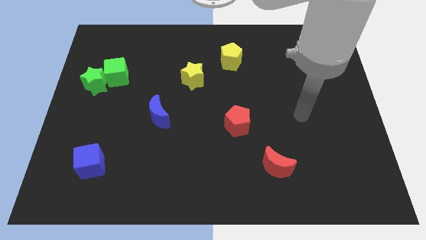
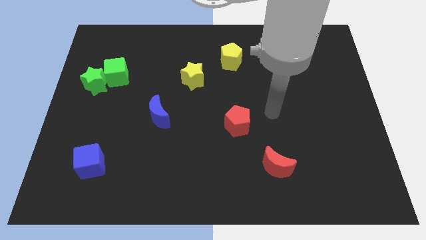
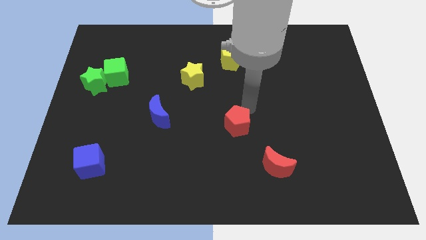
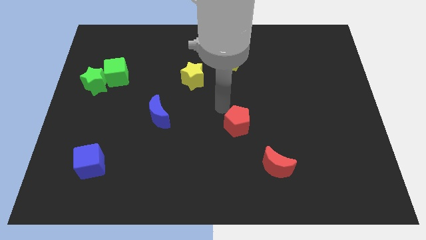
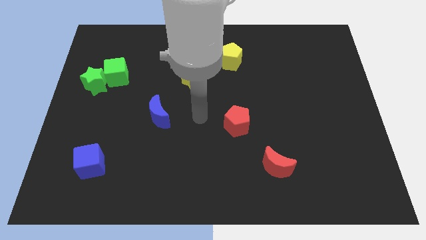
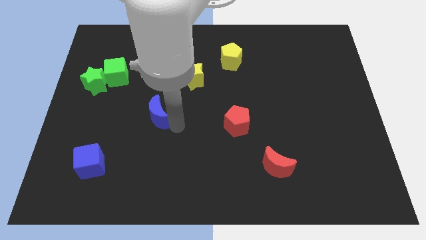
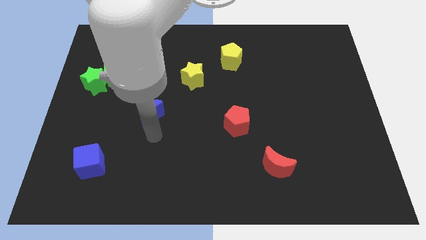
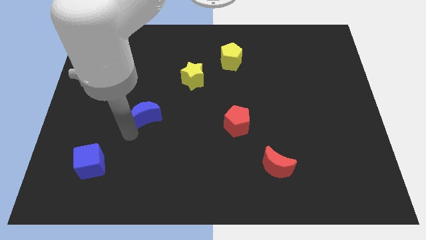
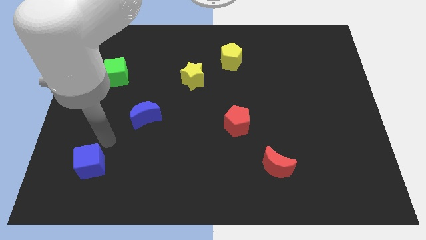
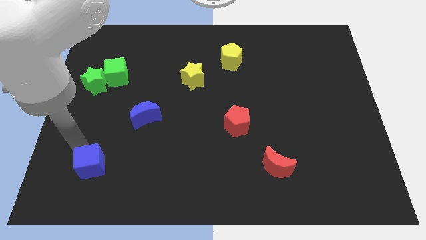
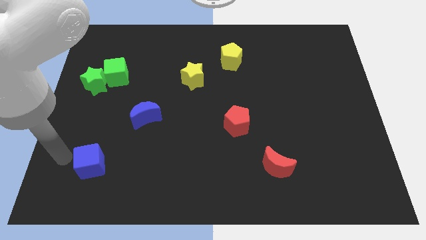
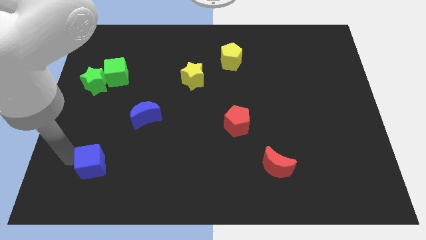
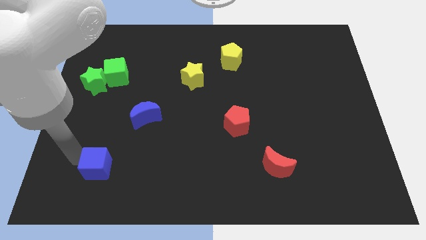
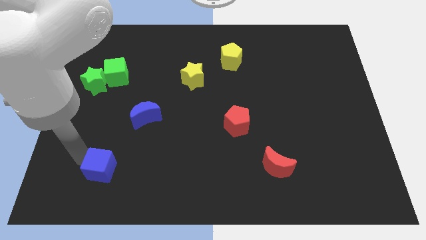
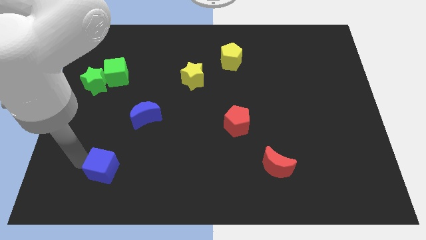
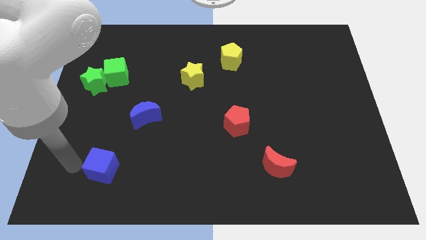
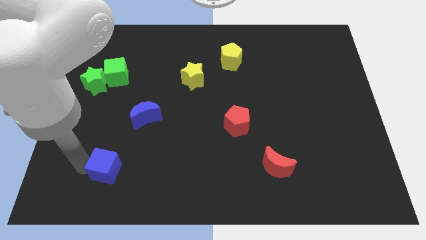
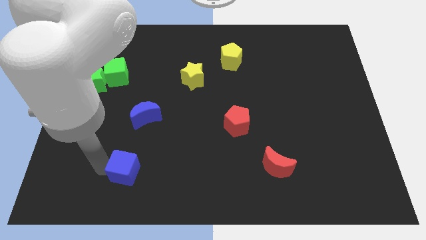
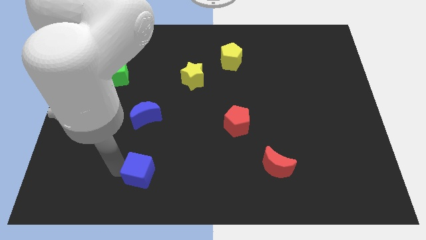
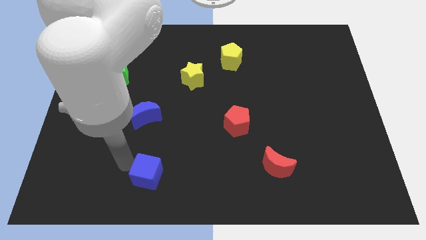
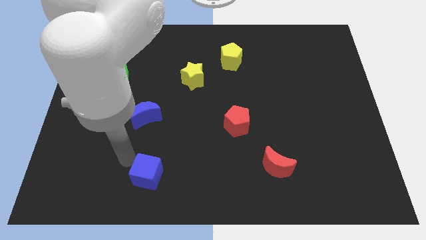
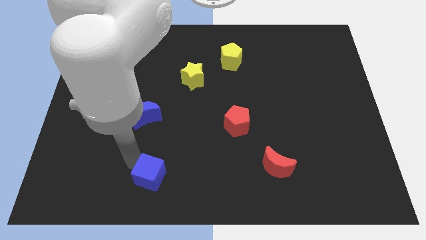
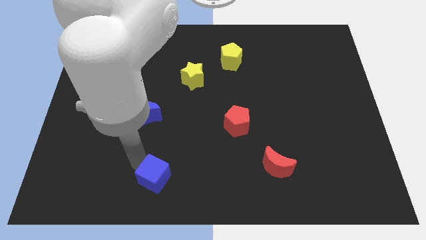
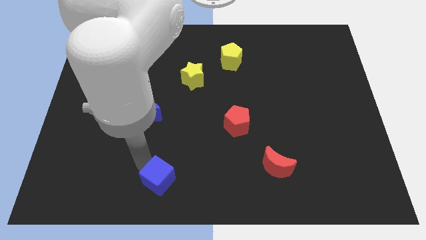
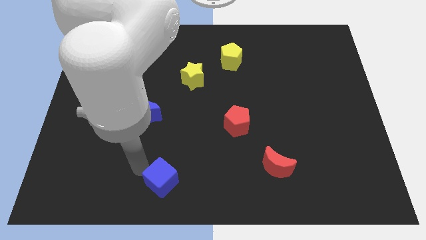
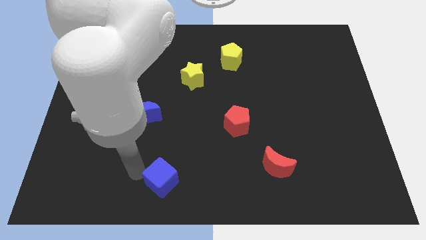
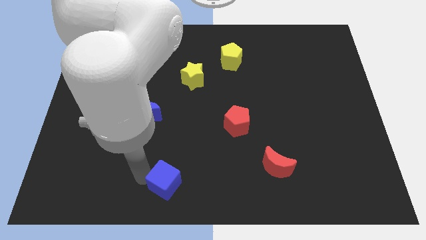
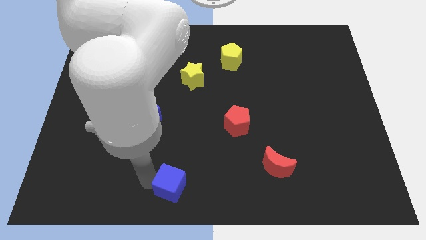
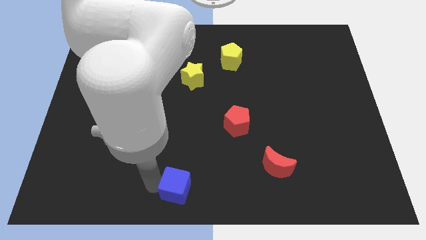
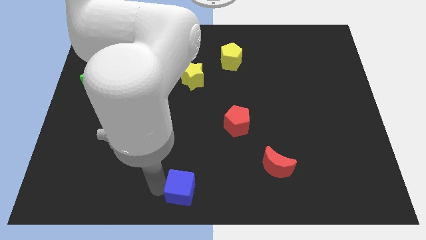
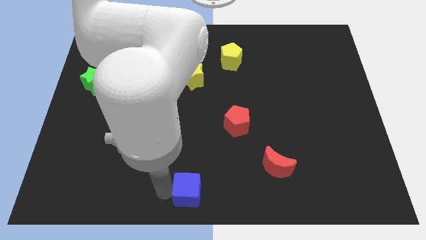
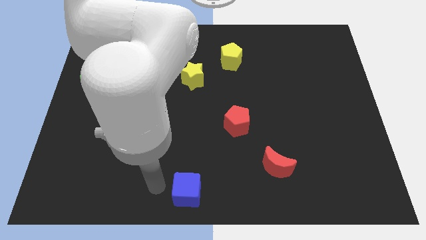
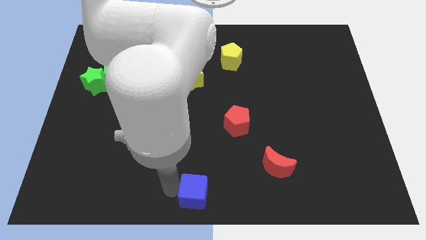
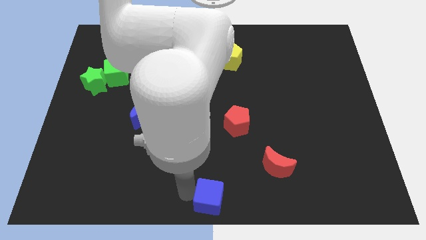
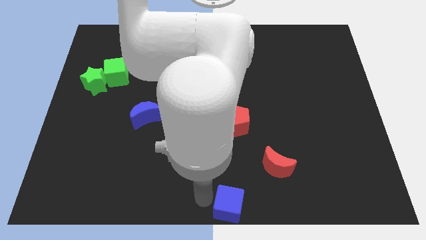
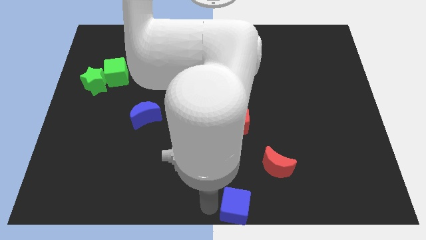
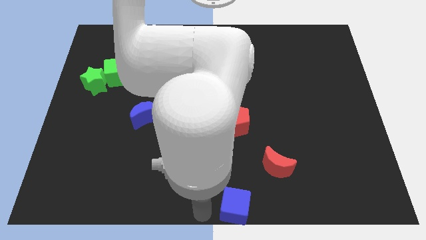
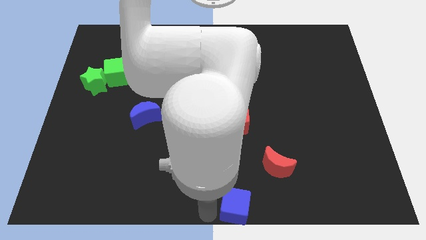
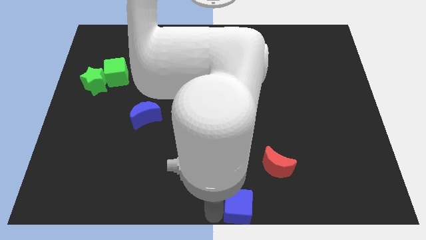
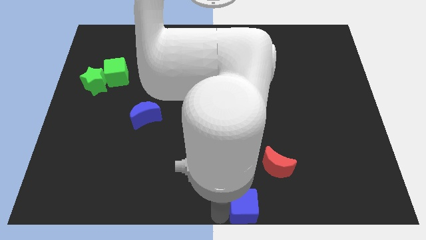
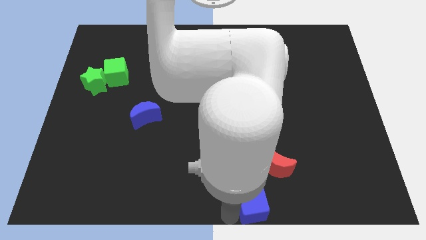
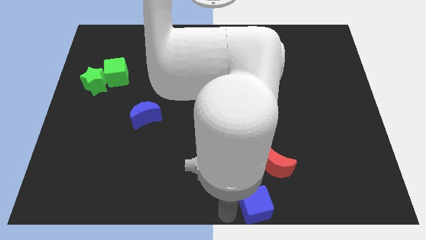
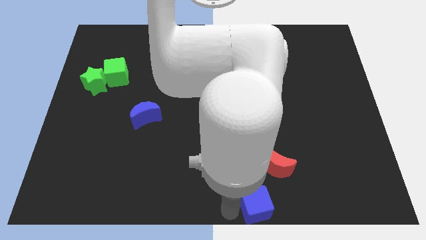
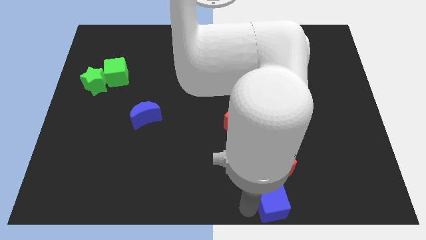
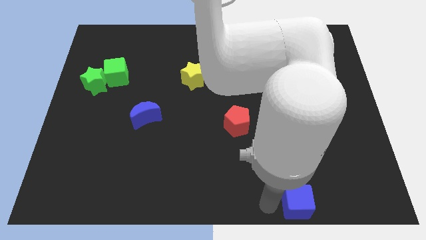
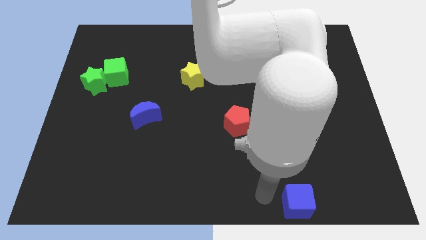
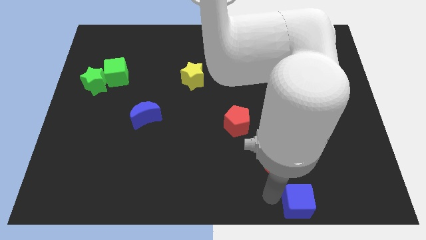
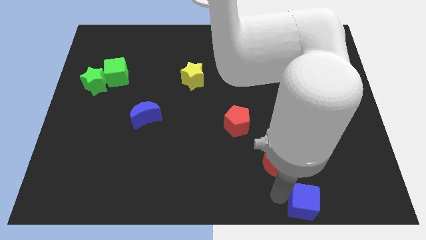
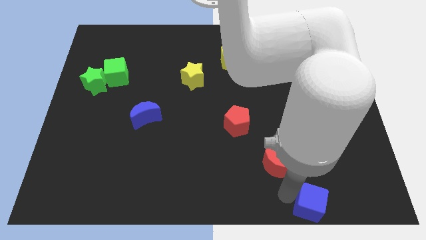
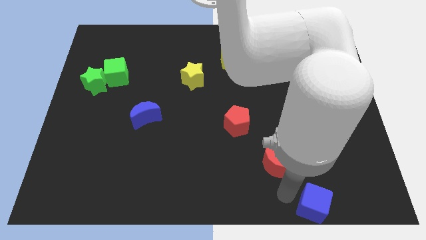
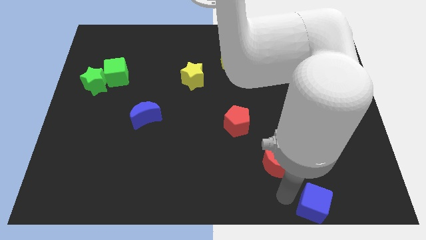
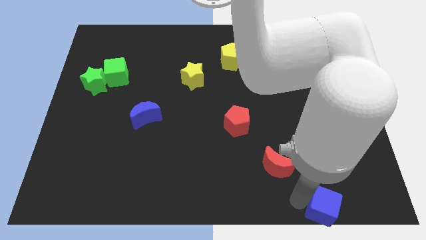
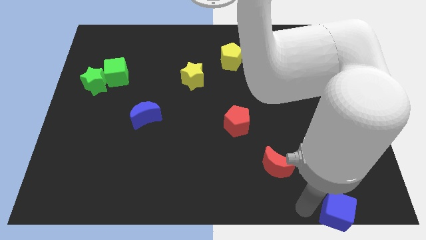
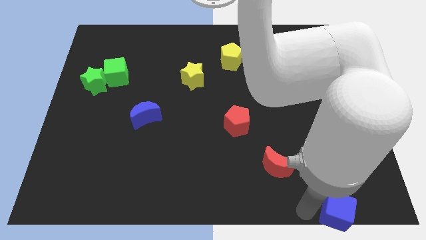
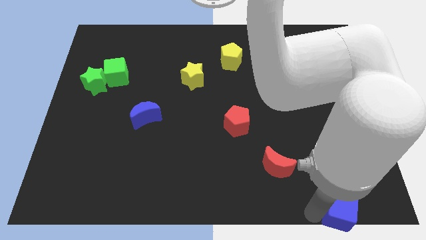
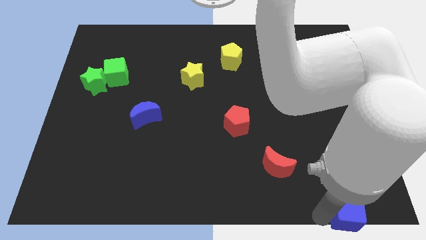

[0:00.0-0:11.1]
slide the blue cube to the bottom right

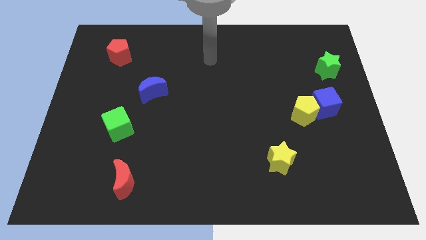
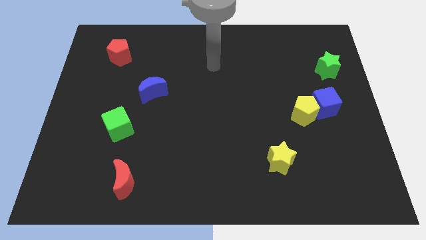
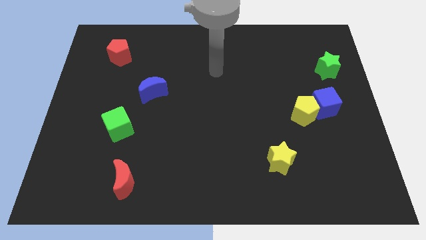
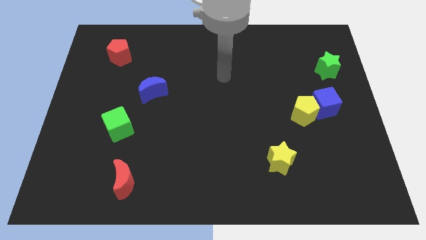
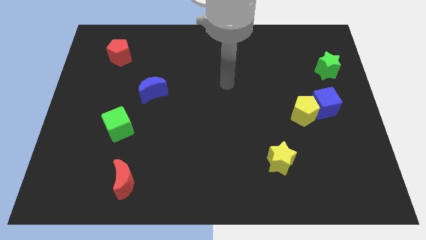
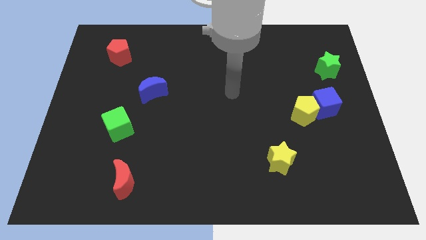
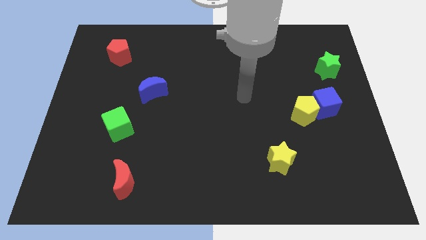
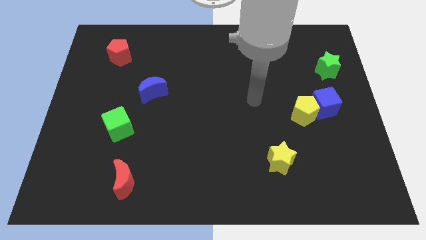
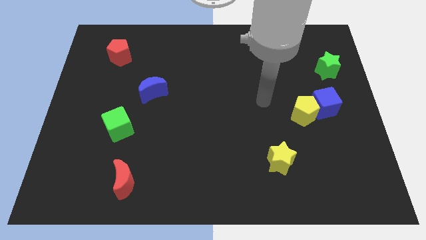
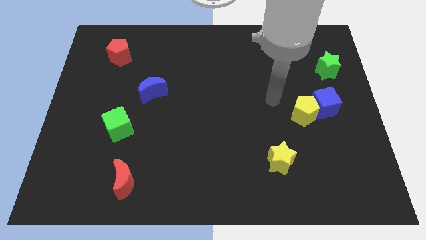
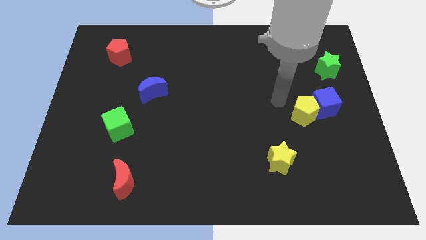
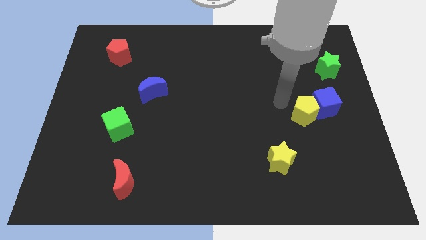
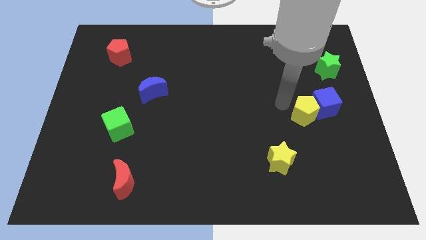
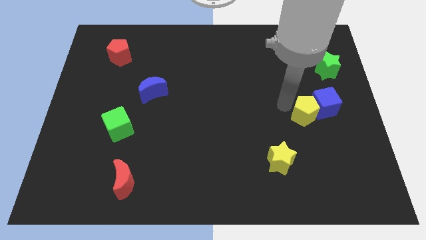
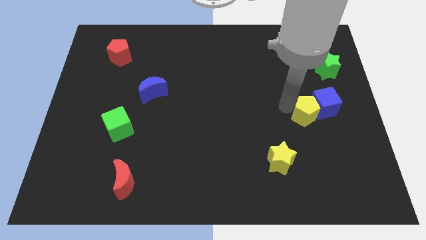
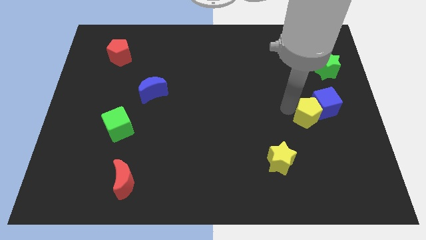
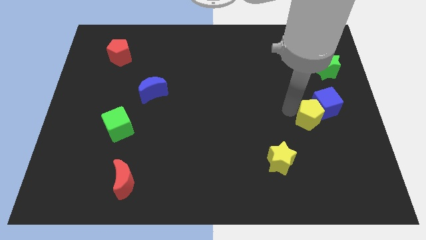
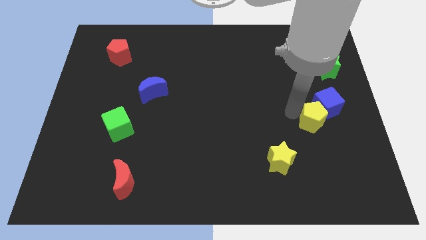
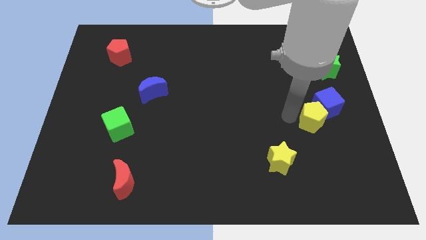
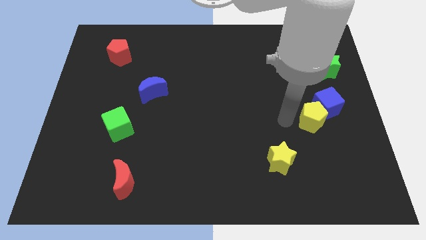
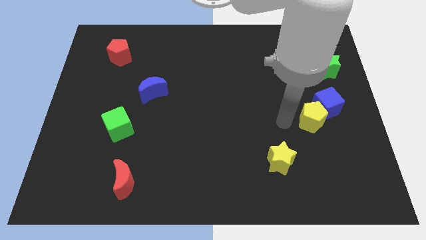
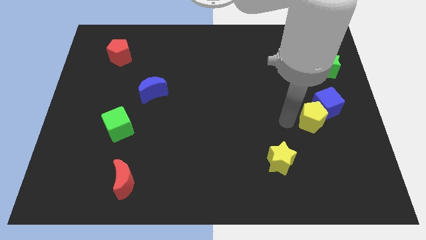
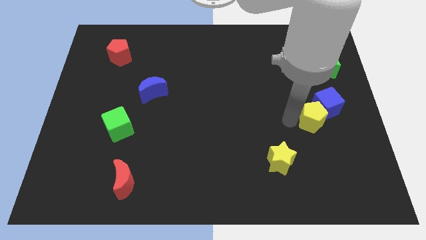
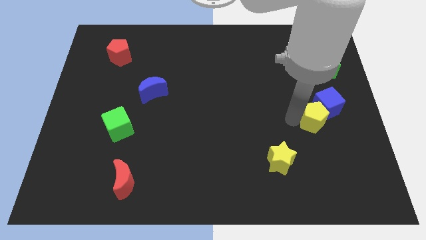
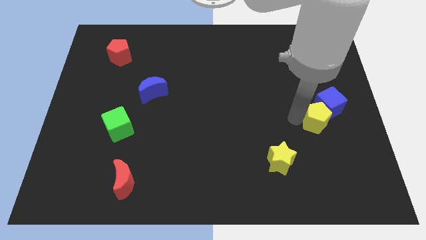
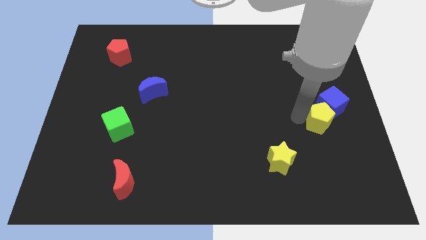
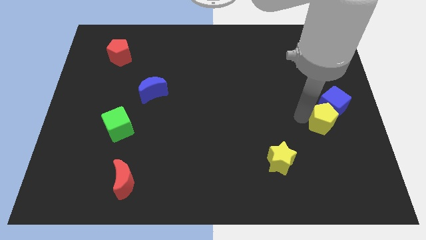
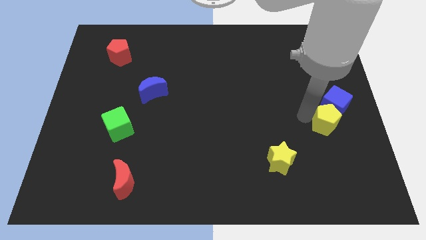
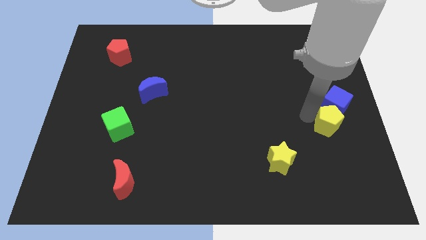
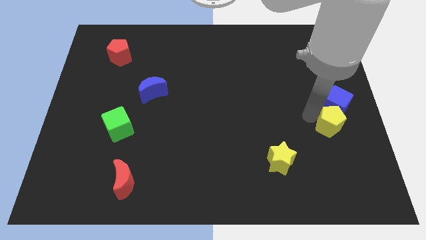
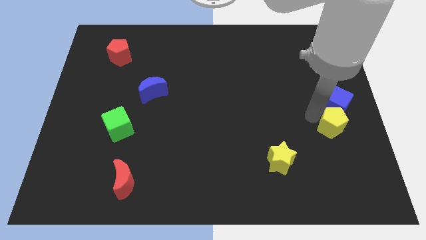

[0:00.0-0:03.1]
slide the yellow pentagon to the center right
